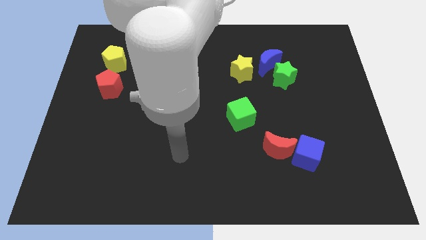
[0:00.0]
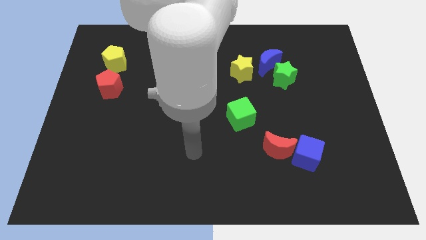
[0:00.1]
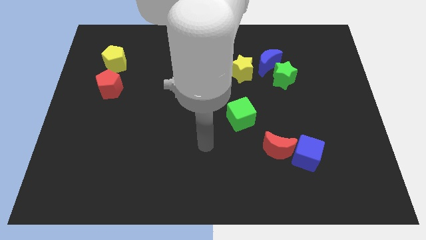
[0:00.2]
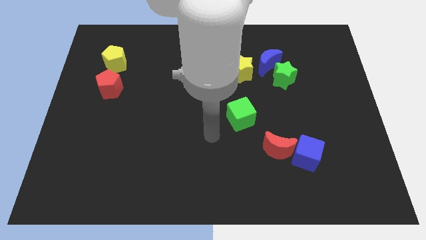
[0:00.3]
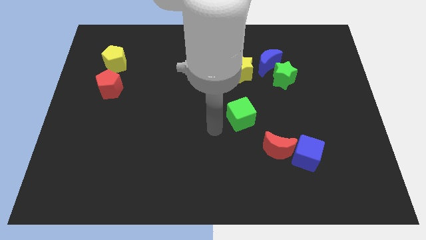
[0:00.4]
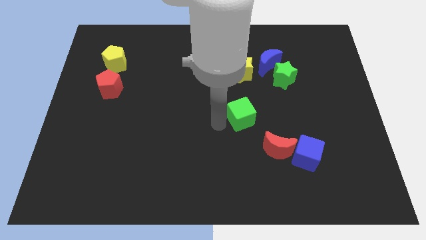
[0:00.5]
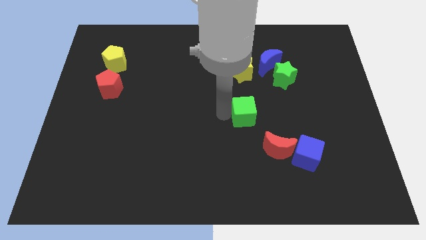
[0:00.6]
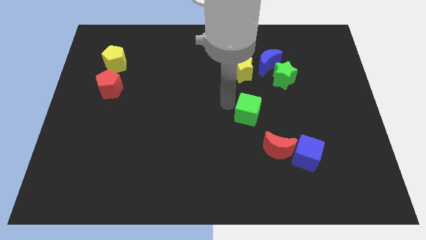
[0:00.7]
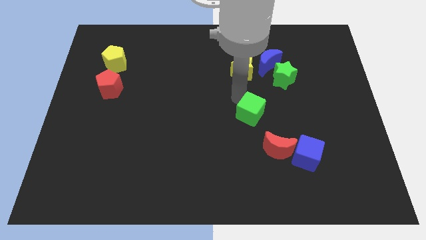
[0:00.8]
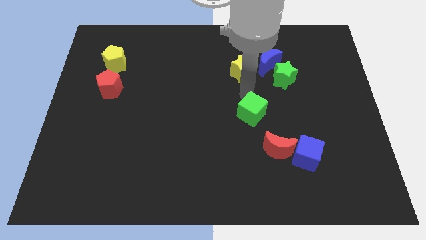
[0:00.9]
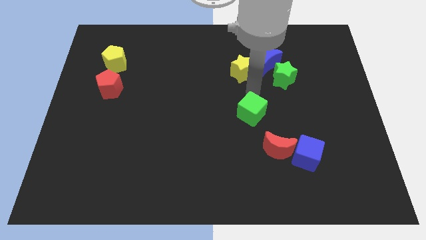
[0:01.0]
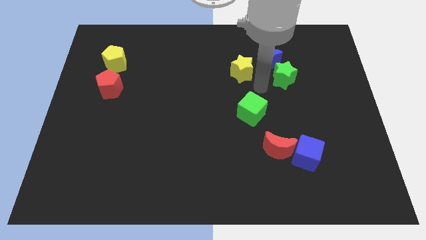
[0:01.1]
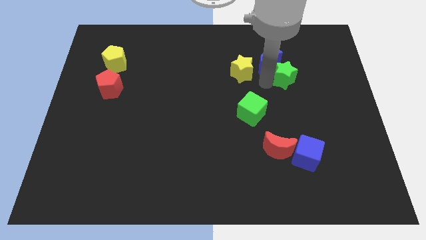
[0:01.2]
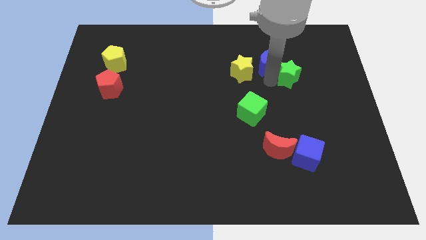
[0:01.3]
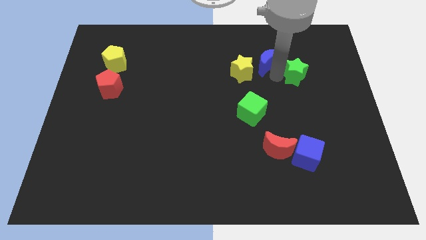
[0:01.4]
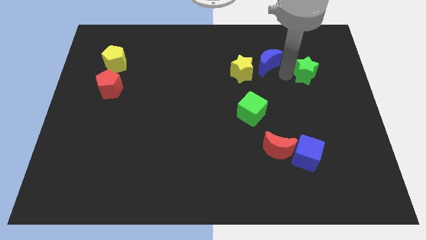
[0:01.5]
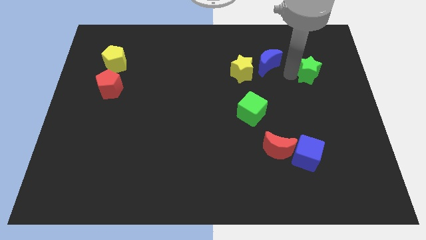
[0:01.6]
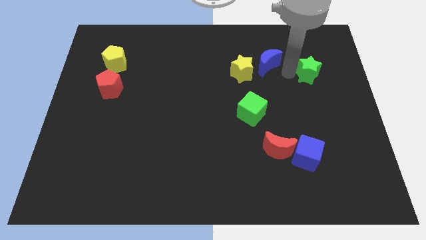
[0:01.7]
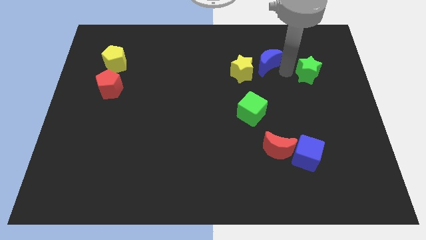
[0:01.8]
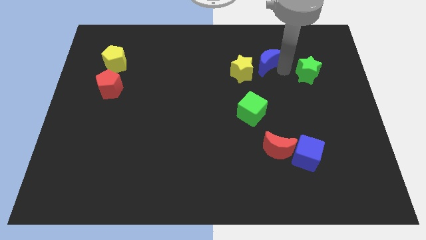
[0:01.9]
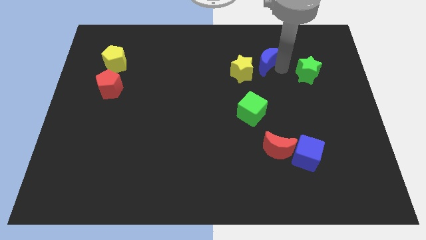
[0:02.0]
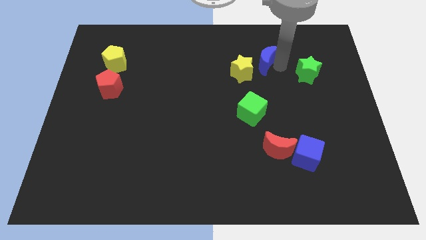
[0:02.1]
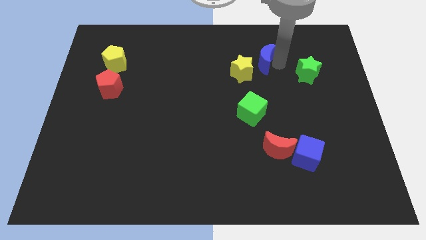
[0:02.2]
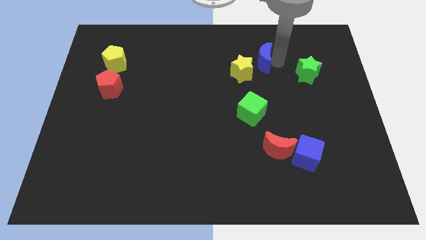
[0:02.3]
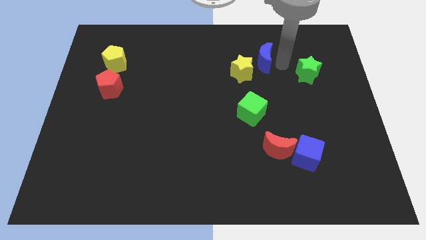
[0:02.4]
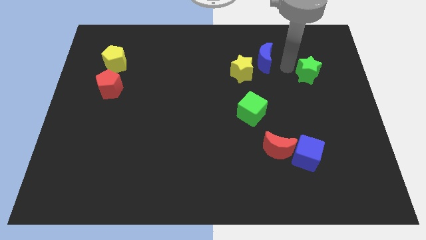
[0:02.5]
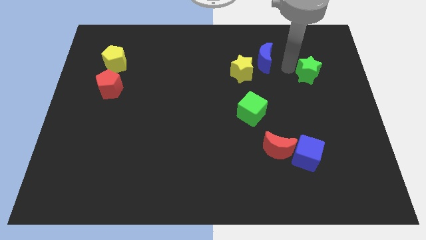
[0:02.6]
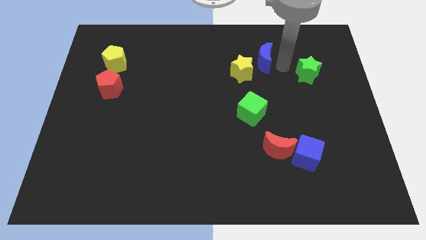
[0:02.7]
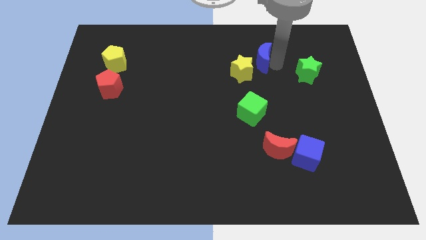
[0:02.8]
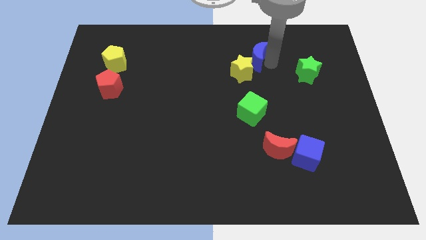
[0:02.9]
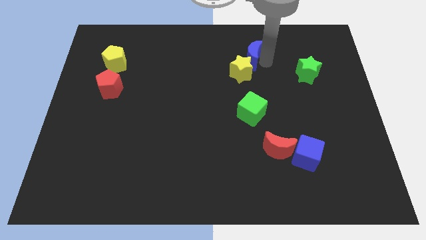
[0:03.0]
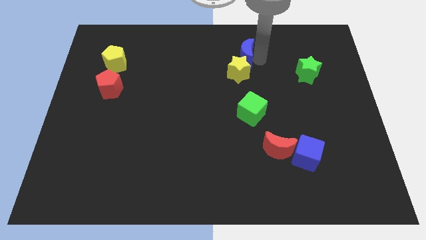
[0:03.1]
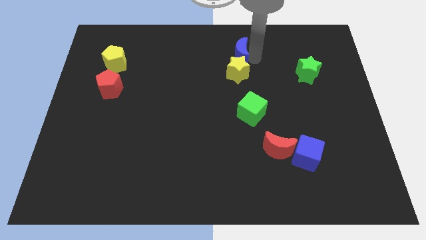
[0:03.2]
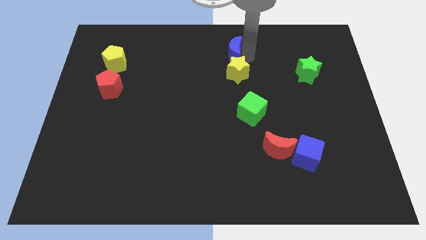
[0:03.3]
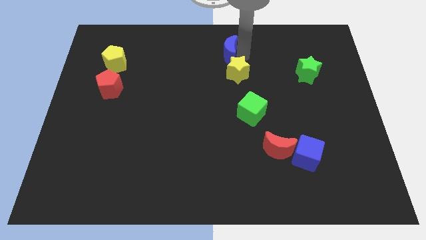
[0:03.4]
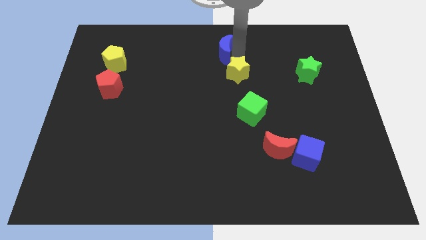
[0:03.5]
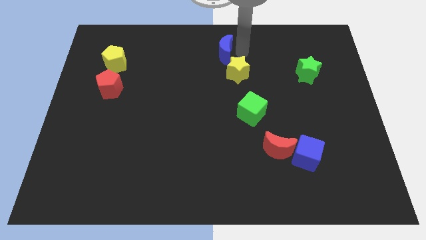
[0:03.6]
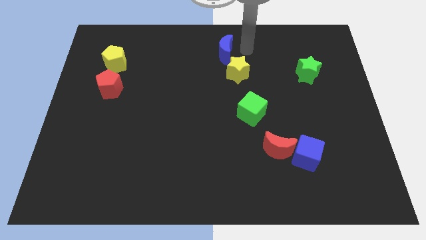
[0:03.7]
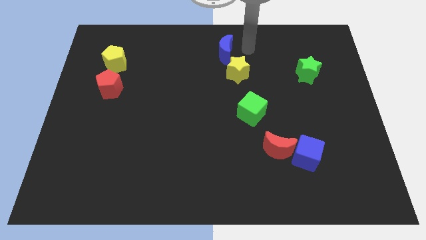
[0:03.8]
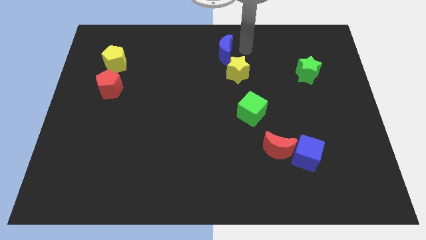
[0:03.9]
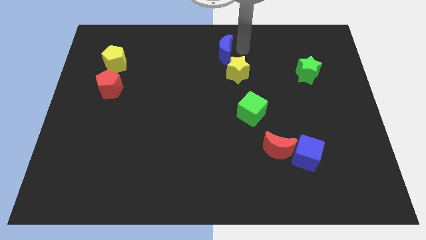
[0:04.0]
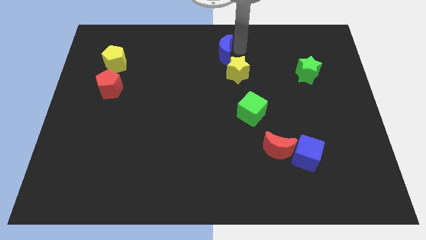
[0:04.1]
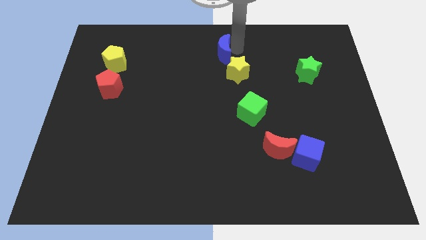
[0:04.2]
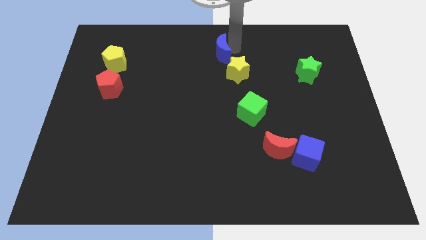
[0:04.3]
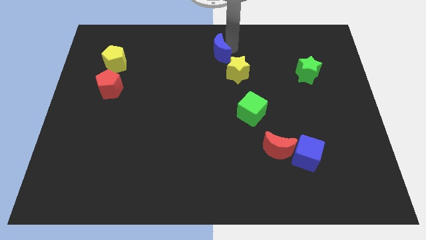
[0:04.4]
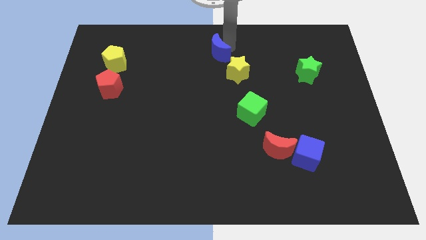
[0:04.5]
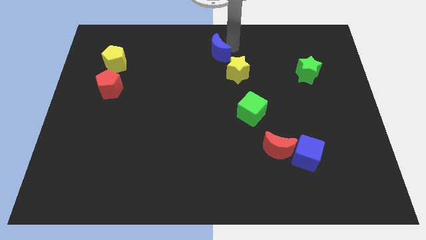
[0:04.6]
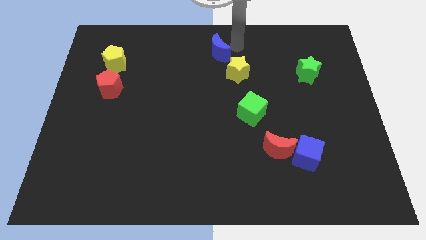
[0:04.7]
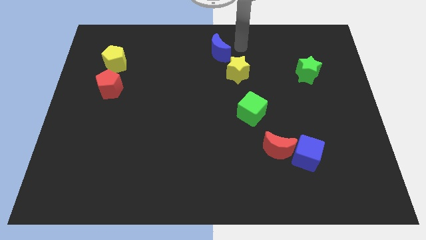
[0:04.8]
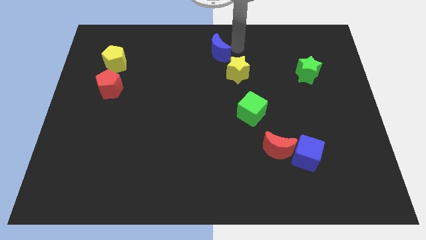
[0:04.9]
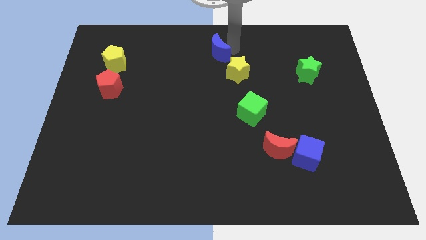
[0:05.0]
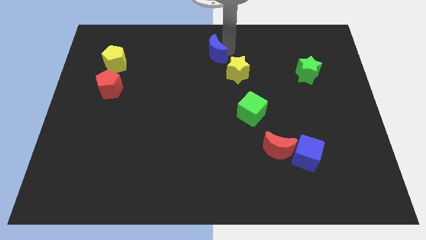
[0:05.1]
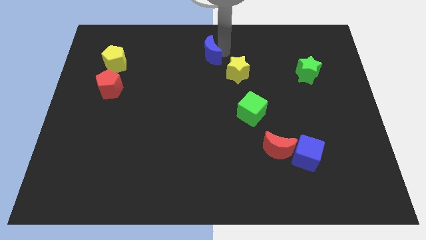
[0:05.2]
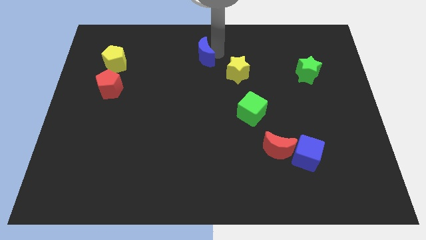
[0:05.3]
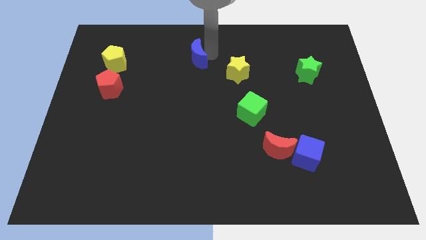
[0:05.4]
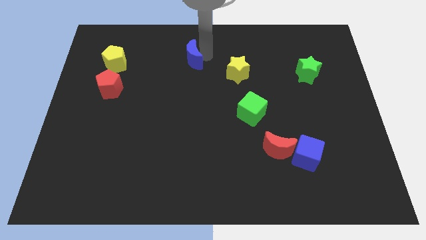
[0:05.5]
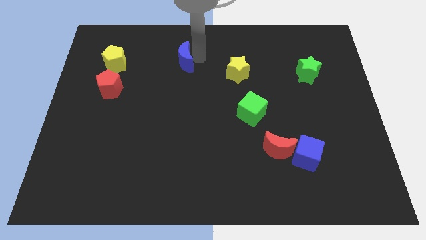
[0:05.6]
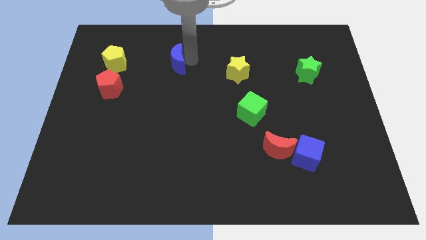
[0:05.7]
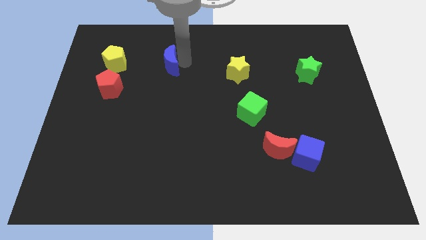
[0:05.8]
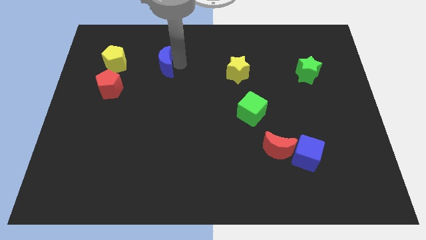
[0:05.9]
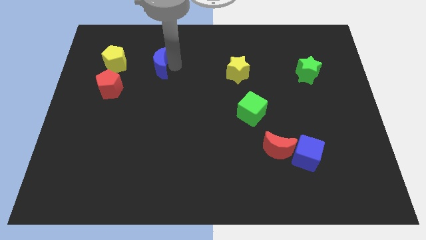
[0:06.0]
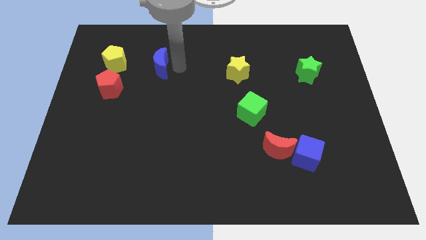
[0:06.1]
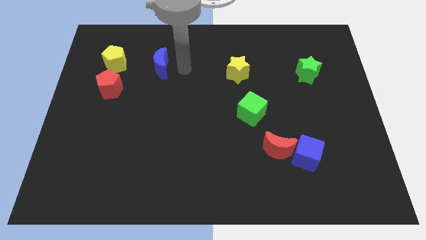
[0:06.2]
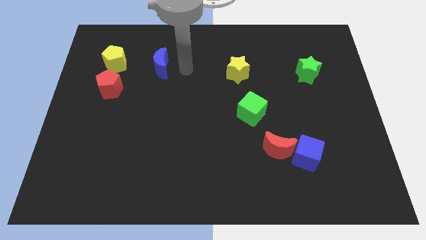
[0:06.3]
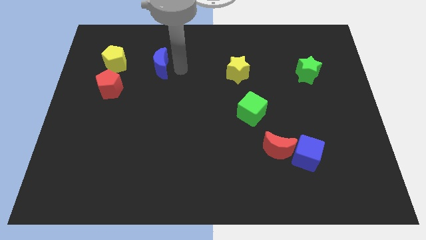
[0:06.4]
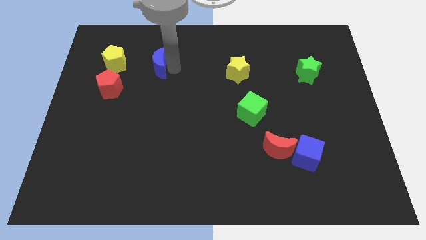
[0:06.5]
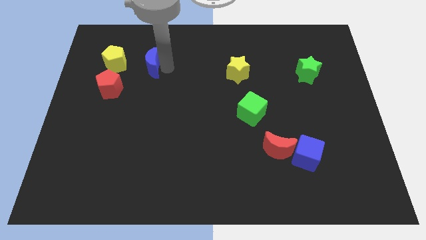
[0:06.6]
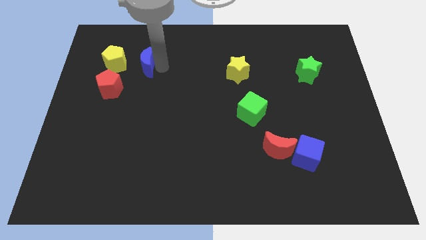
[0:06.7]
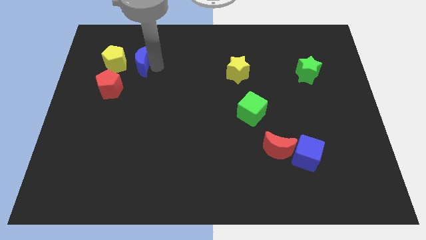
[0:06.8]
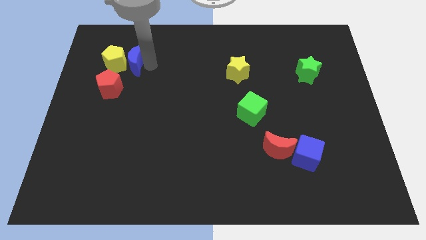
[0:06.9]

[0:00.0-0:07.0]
slide the blue moon next to the yellow pentagon
